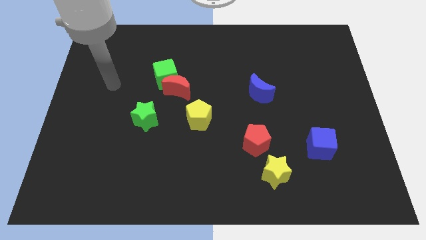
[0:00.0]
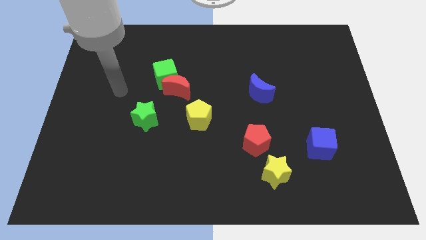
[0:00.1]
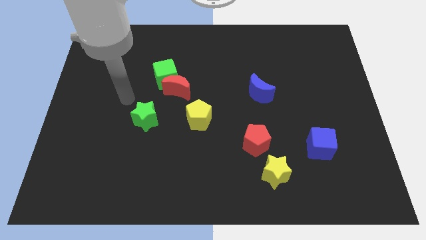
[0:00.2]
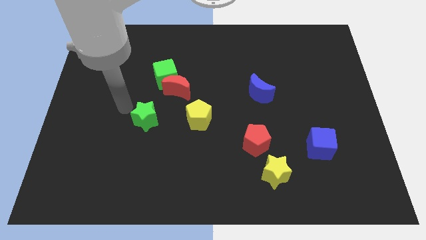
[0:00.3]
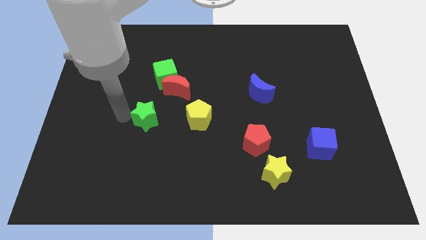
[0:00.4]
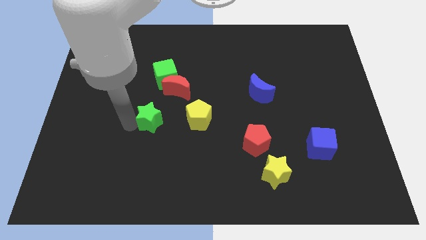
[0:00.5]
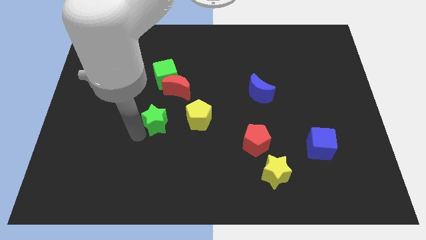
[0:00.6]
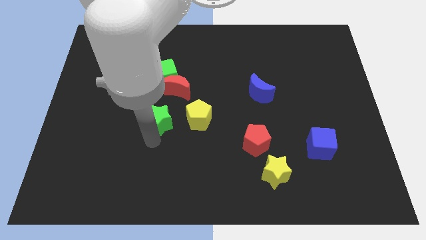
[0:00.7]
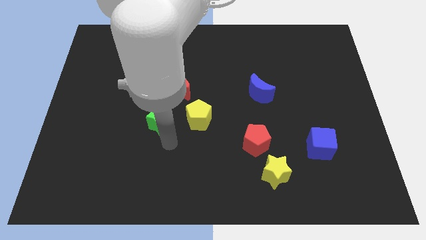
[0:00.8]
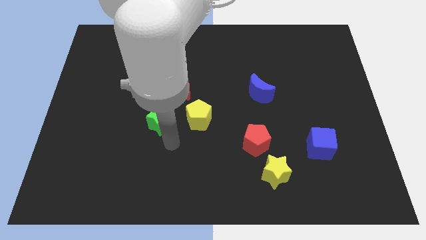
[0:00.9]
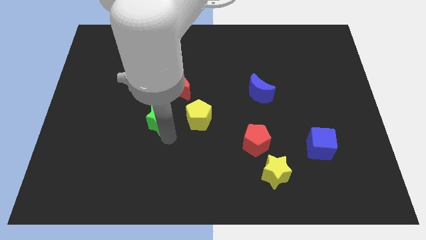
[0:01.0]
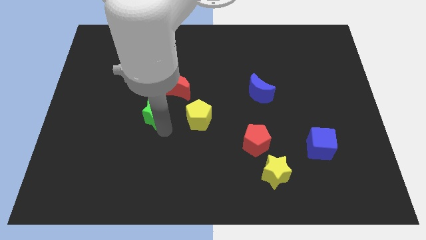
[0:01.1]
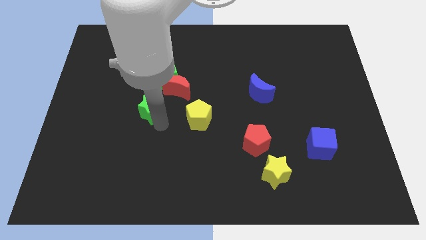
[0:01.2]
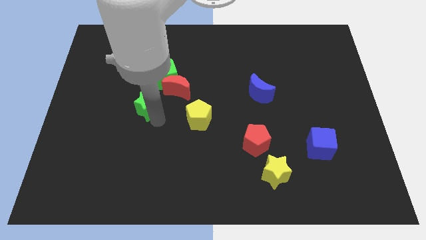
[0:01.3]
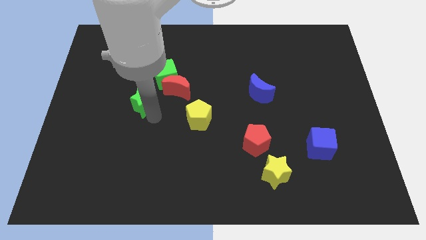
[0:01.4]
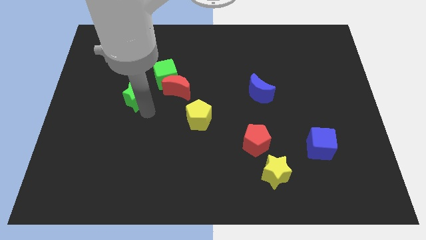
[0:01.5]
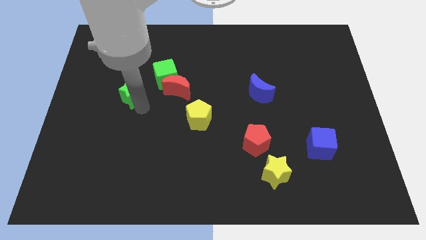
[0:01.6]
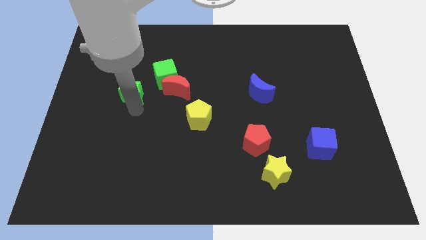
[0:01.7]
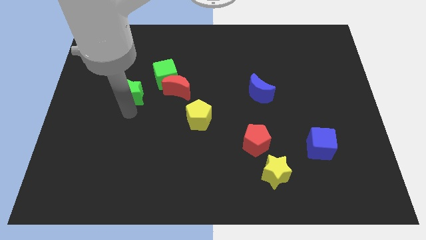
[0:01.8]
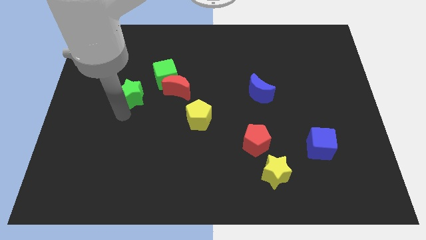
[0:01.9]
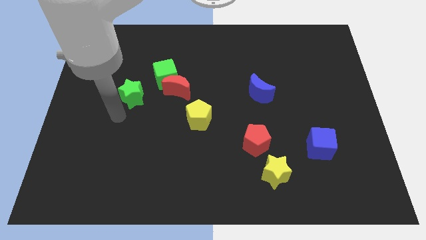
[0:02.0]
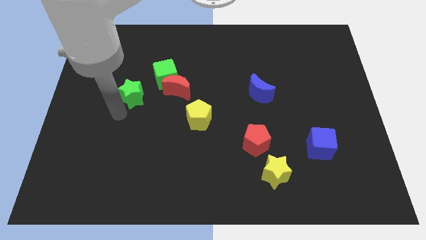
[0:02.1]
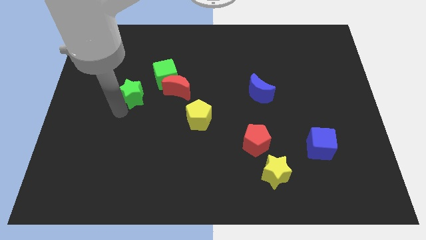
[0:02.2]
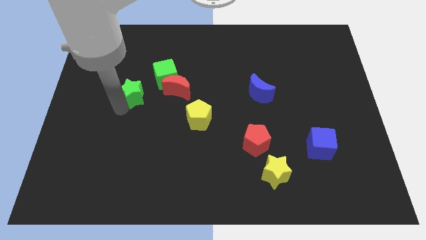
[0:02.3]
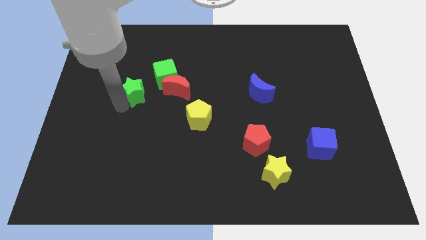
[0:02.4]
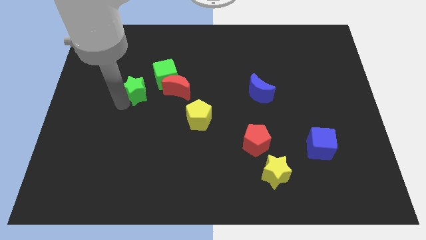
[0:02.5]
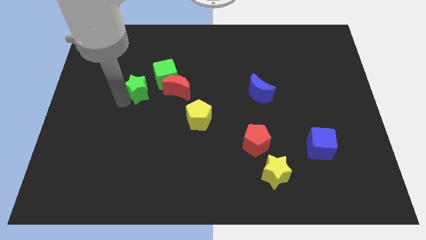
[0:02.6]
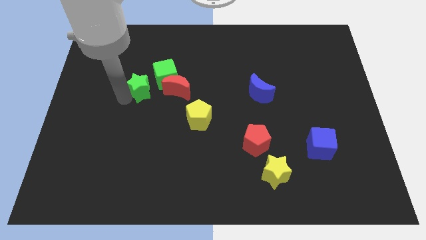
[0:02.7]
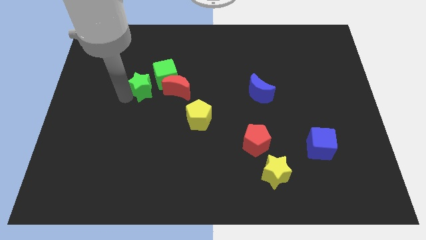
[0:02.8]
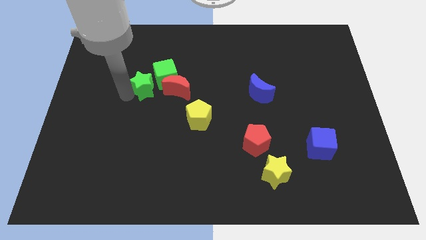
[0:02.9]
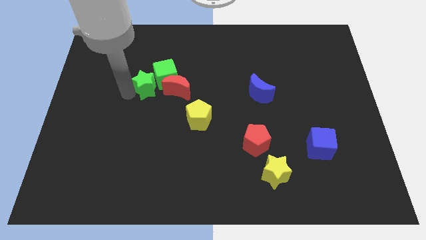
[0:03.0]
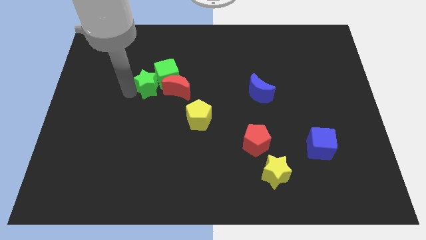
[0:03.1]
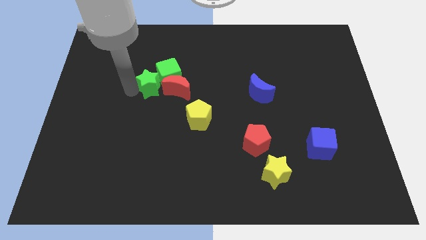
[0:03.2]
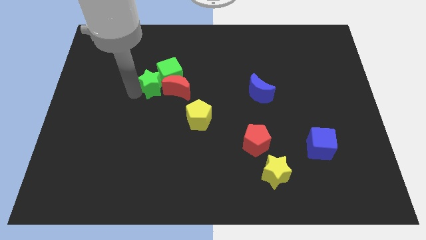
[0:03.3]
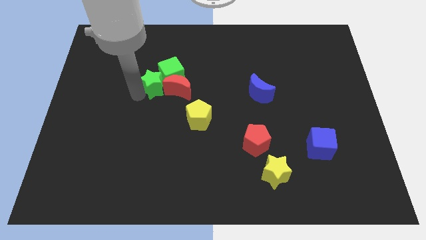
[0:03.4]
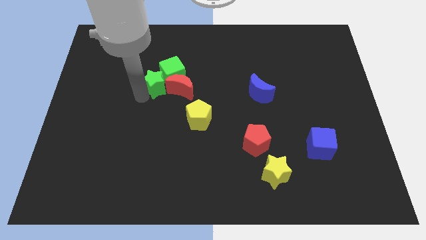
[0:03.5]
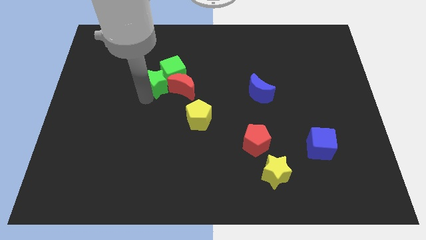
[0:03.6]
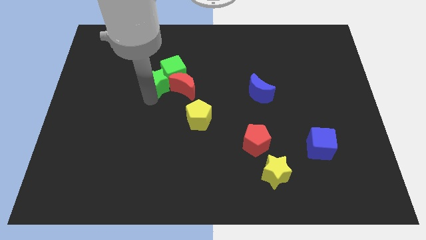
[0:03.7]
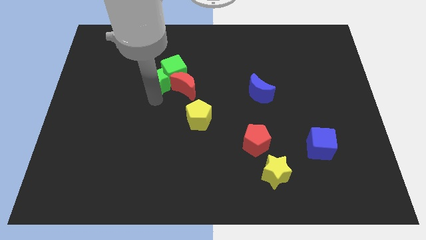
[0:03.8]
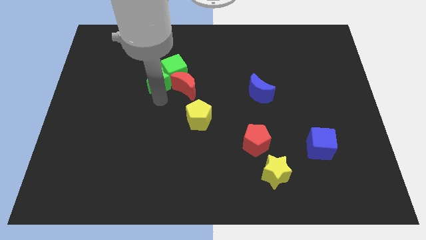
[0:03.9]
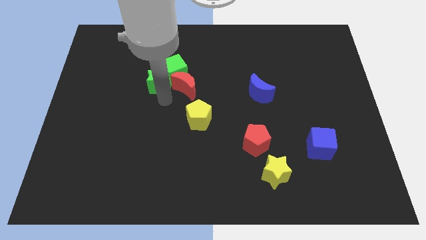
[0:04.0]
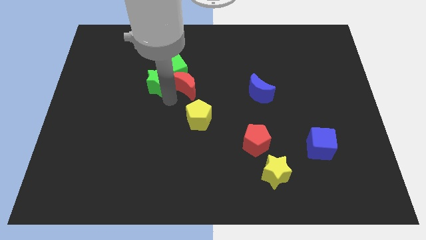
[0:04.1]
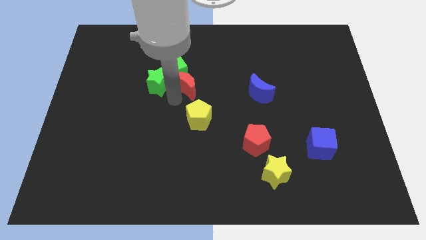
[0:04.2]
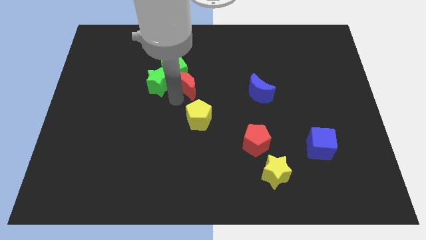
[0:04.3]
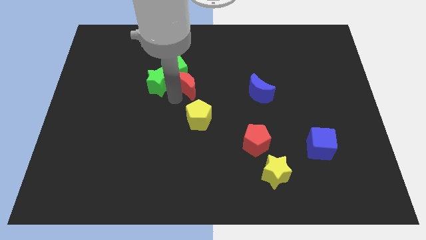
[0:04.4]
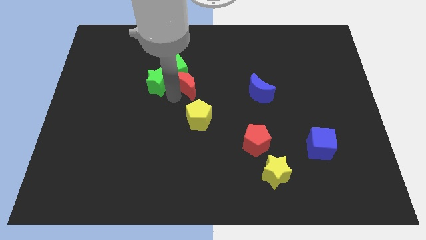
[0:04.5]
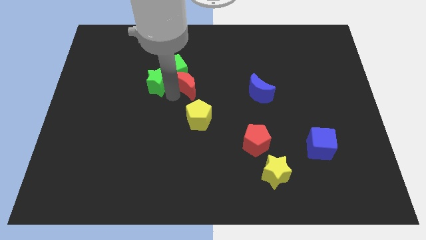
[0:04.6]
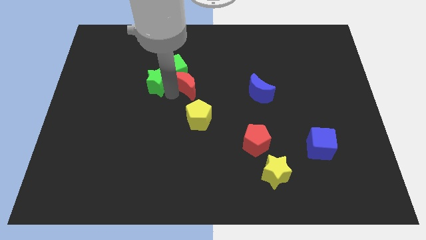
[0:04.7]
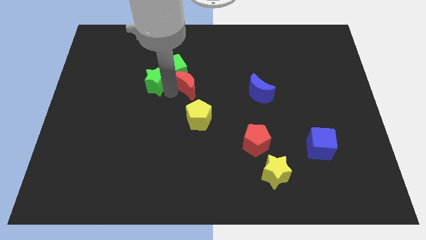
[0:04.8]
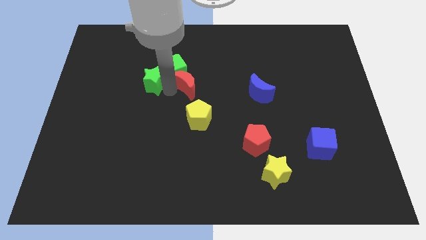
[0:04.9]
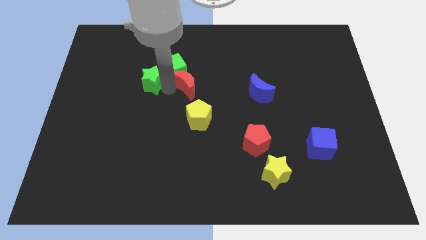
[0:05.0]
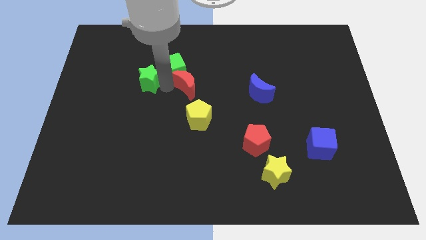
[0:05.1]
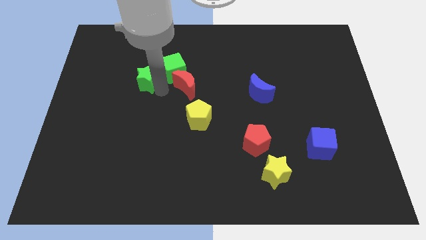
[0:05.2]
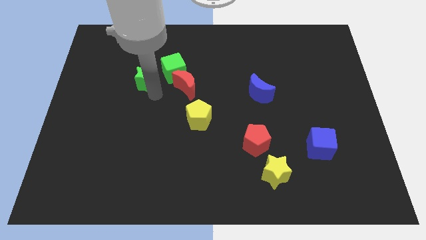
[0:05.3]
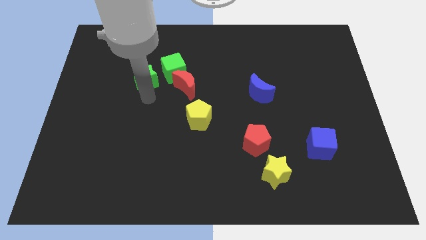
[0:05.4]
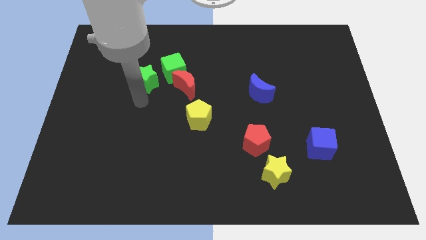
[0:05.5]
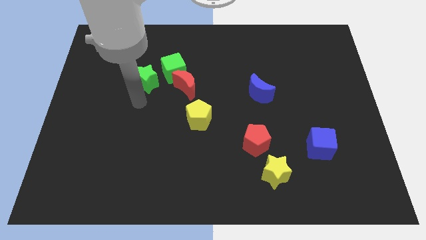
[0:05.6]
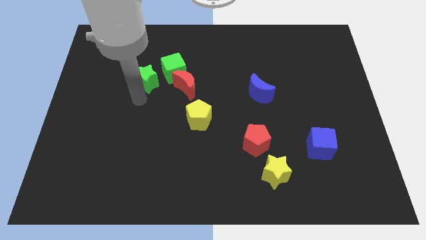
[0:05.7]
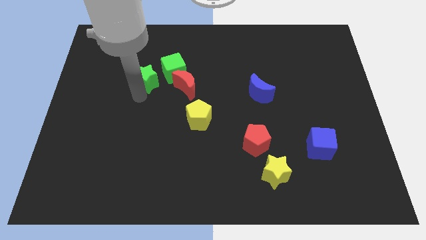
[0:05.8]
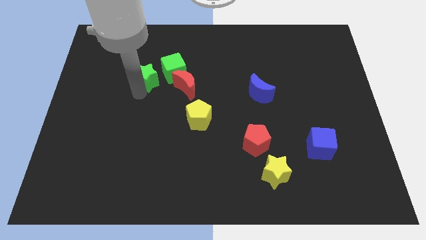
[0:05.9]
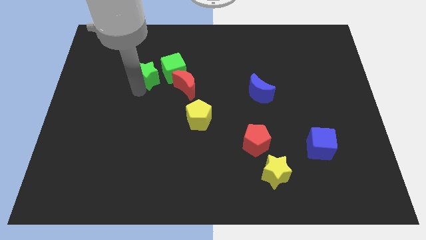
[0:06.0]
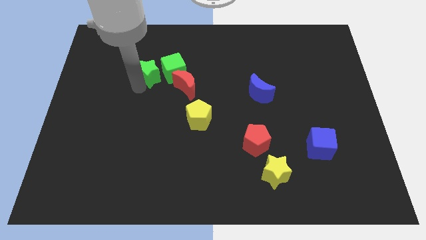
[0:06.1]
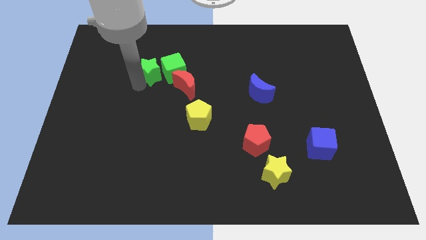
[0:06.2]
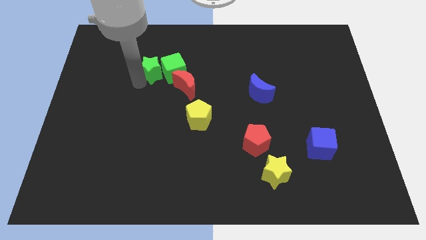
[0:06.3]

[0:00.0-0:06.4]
put the green star to the top left of the green cube

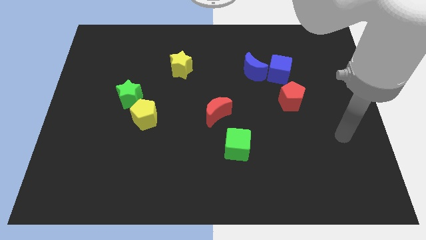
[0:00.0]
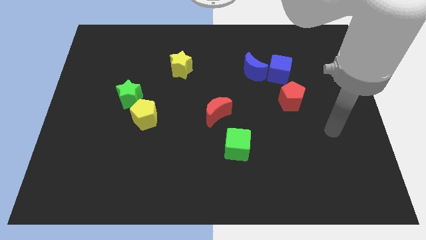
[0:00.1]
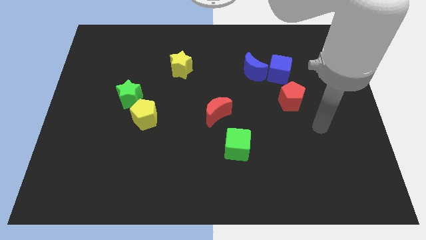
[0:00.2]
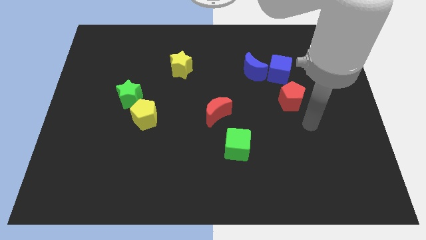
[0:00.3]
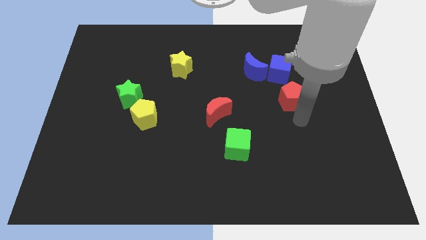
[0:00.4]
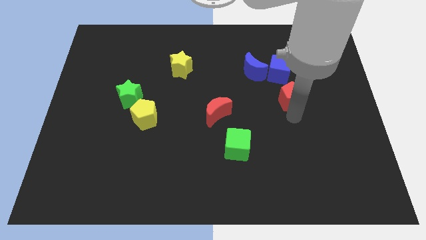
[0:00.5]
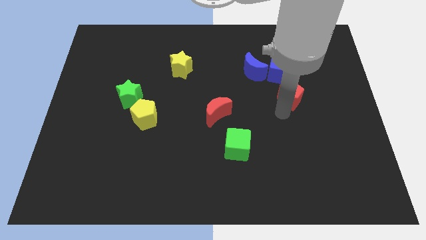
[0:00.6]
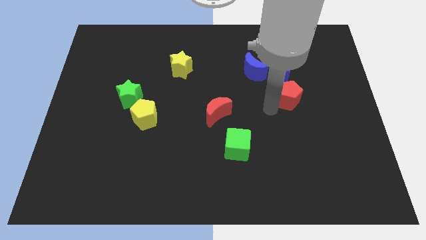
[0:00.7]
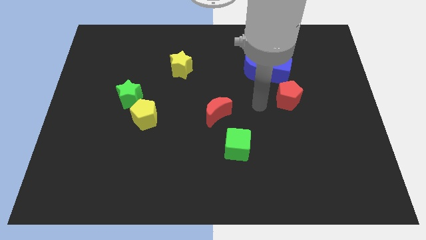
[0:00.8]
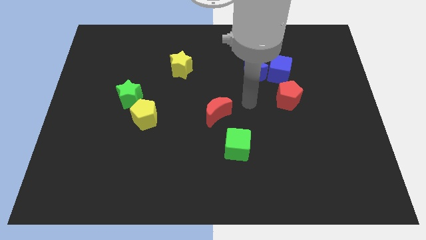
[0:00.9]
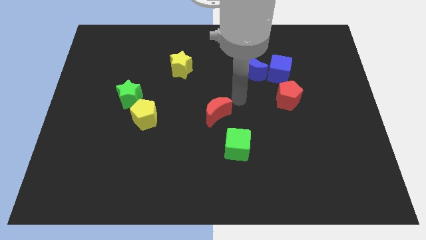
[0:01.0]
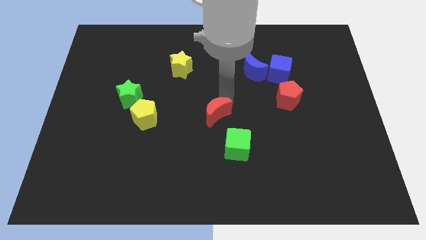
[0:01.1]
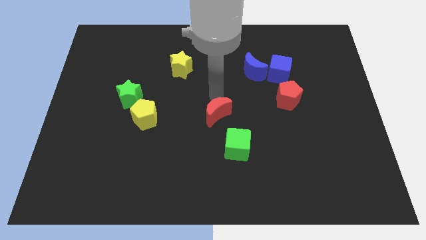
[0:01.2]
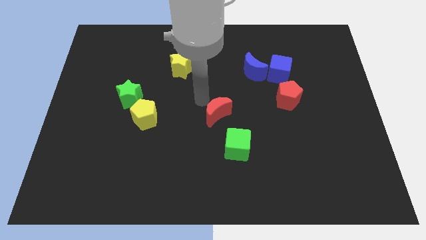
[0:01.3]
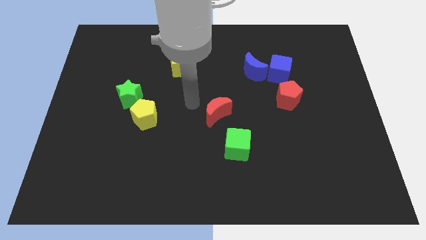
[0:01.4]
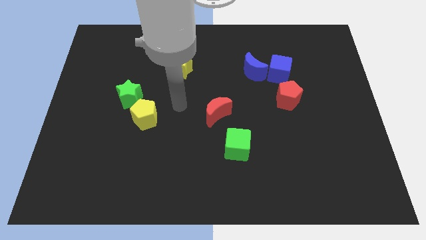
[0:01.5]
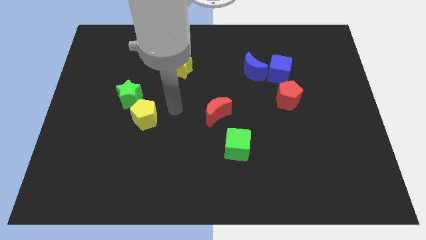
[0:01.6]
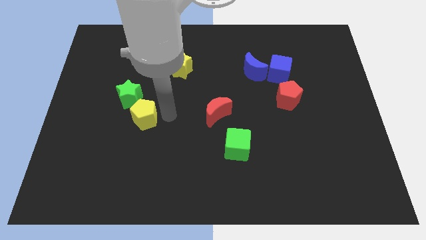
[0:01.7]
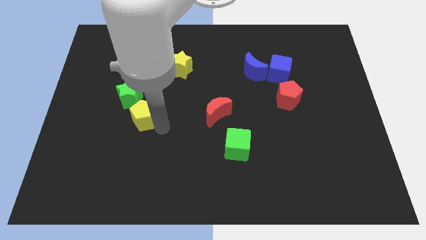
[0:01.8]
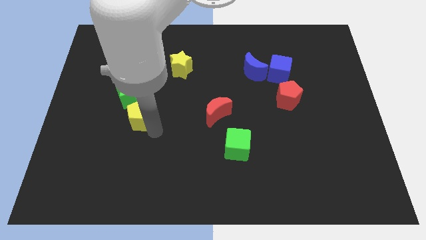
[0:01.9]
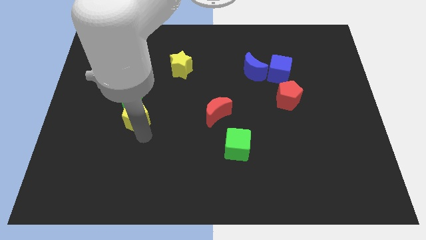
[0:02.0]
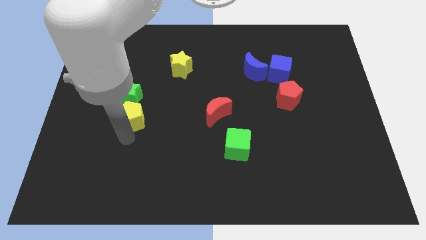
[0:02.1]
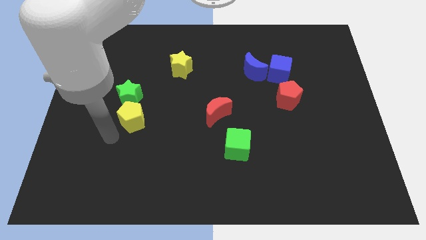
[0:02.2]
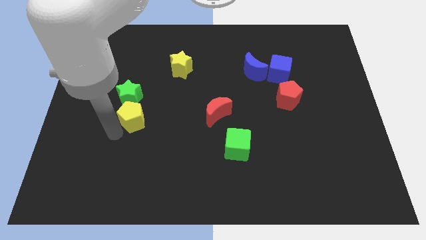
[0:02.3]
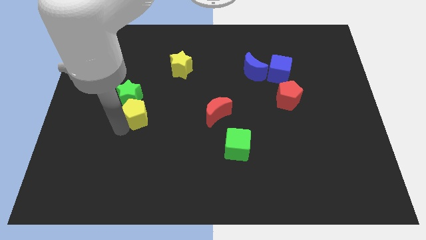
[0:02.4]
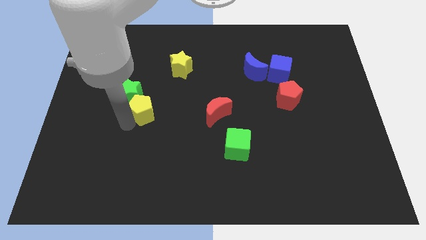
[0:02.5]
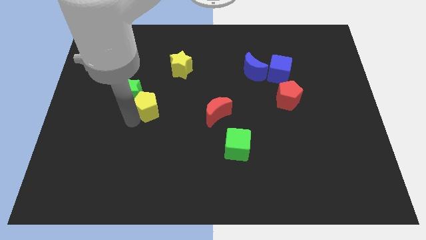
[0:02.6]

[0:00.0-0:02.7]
push the yellow pentagon to the right side of the green star
